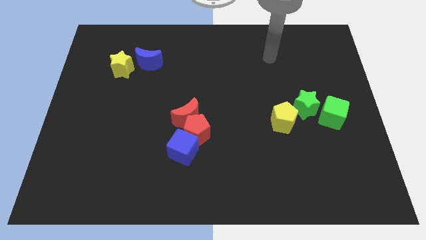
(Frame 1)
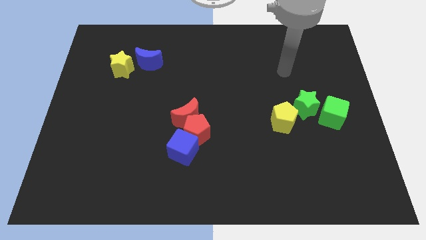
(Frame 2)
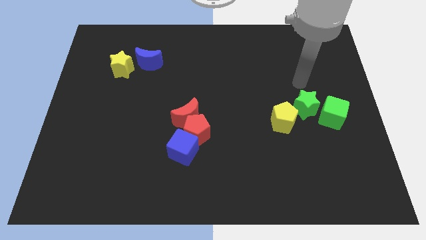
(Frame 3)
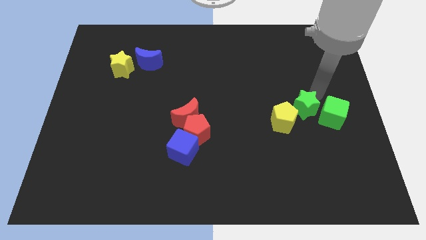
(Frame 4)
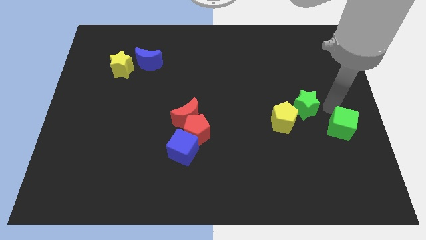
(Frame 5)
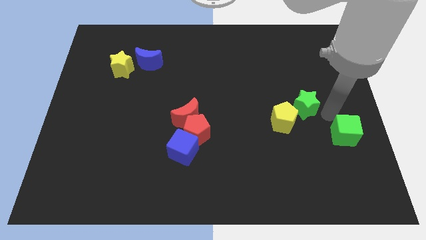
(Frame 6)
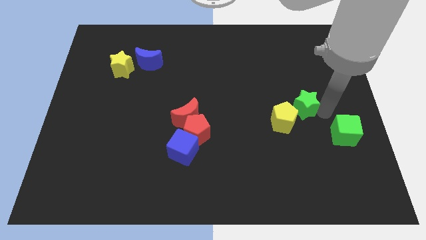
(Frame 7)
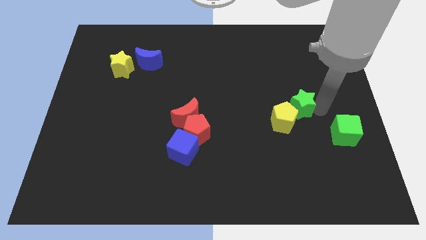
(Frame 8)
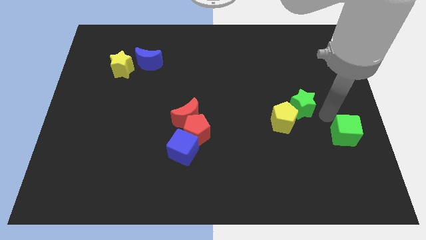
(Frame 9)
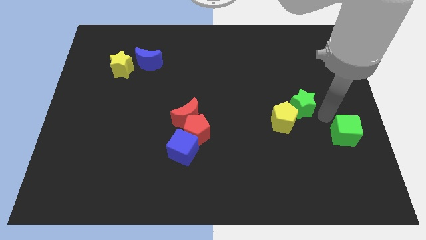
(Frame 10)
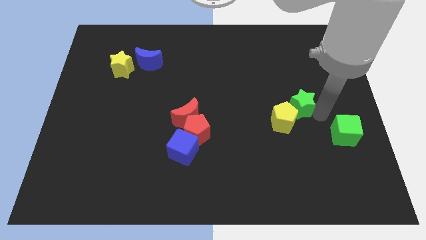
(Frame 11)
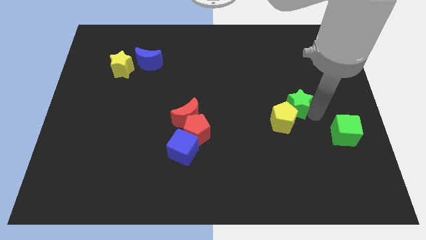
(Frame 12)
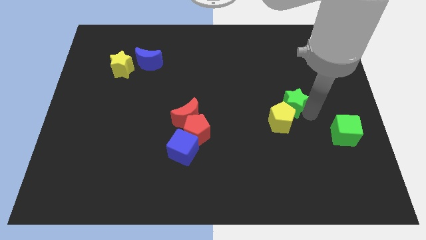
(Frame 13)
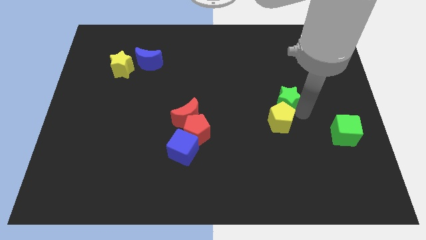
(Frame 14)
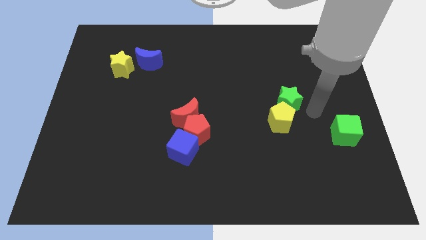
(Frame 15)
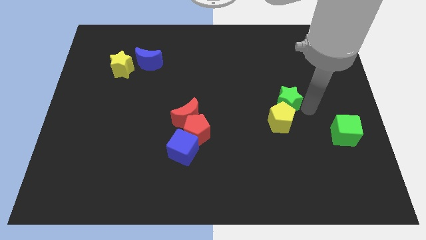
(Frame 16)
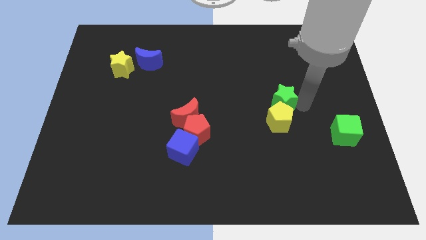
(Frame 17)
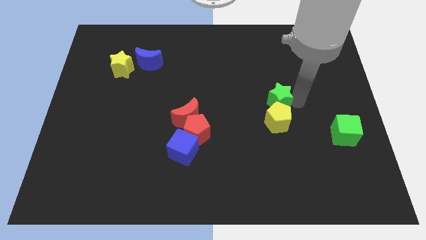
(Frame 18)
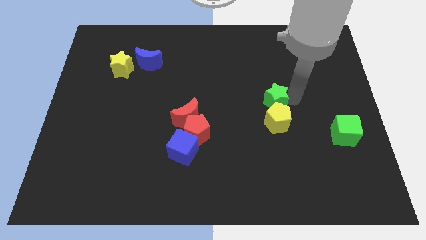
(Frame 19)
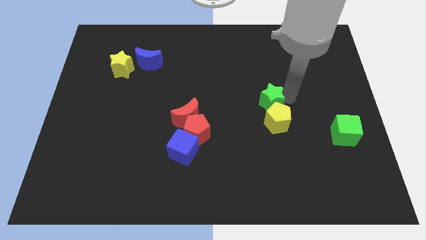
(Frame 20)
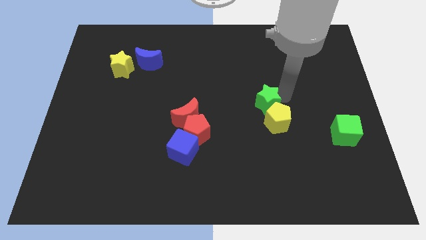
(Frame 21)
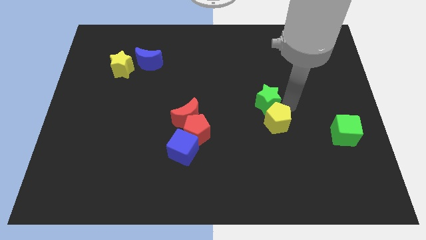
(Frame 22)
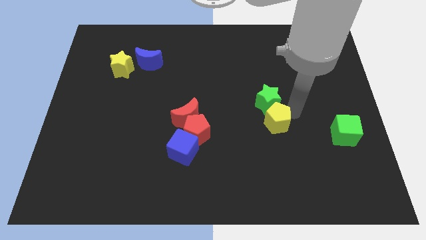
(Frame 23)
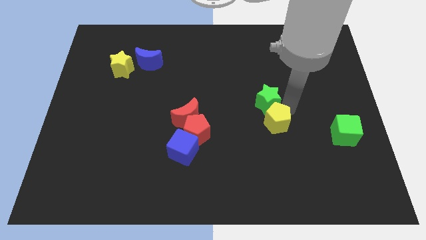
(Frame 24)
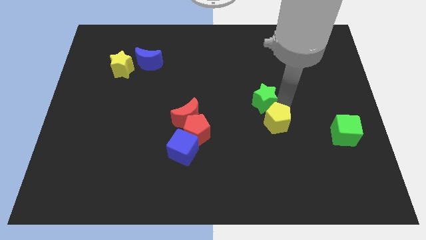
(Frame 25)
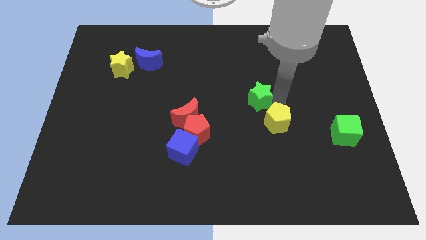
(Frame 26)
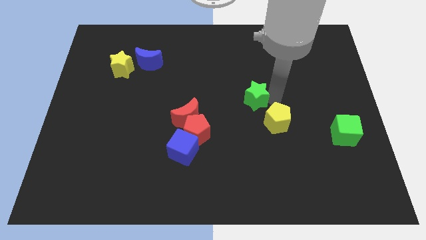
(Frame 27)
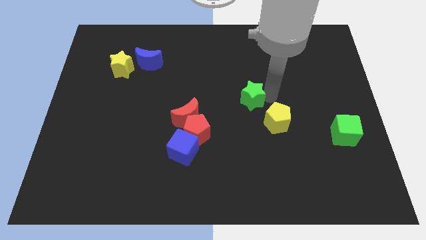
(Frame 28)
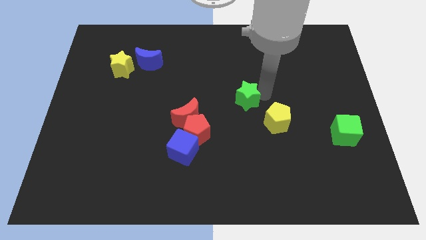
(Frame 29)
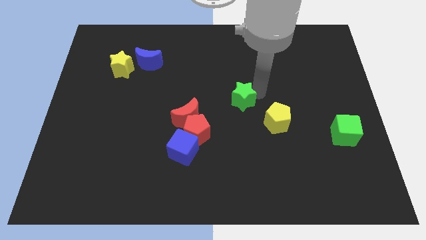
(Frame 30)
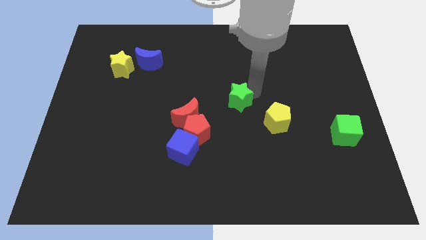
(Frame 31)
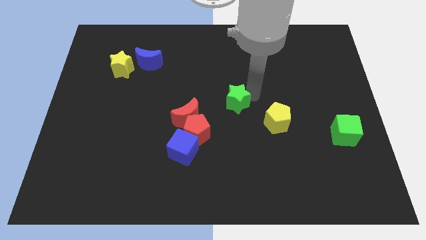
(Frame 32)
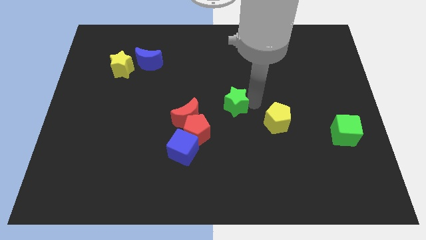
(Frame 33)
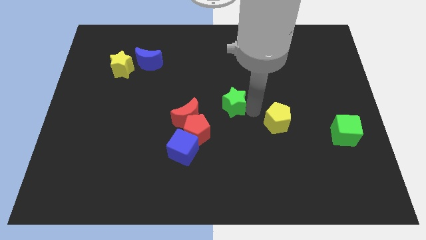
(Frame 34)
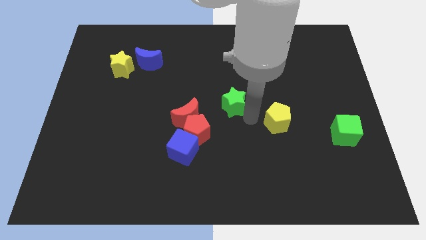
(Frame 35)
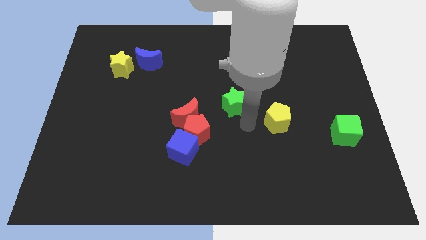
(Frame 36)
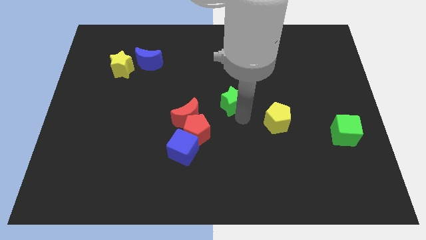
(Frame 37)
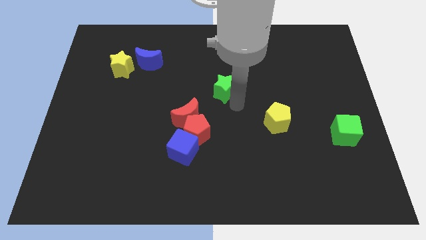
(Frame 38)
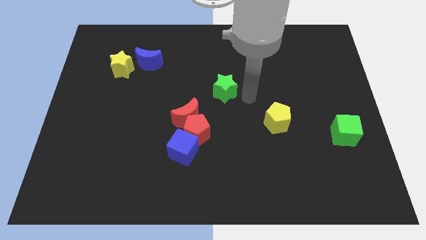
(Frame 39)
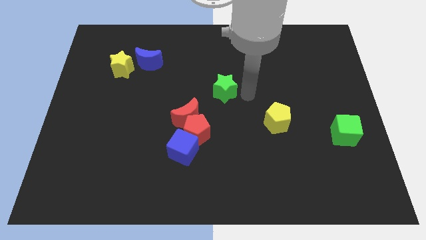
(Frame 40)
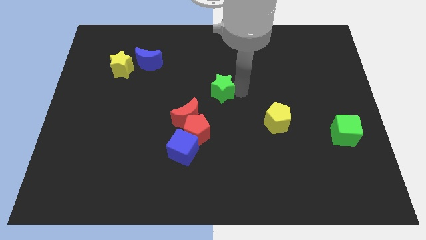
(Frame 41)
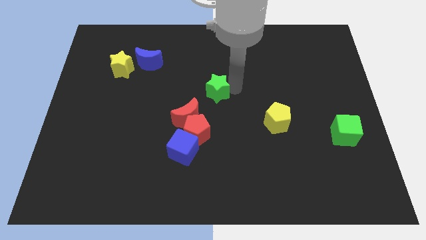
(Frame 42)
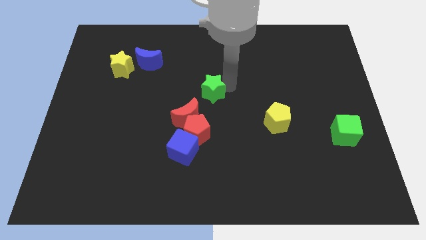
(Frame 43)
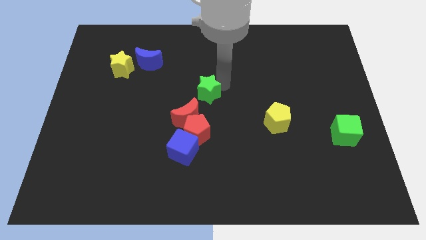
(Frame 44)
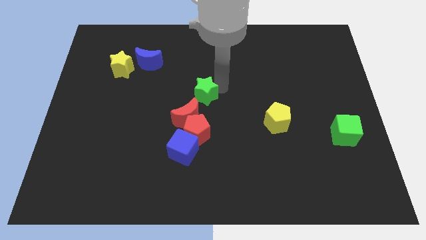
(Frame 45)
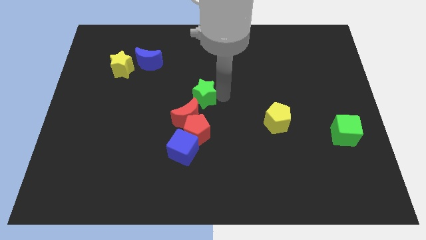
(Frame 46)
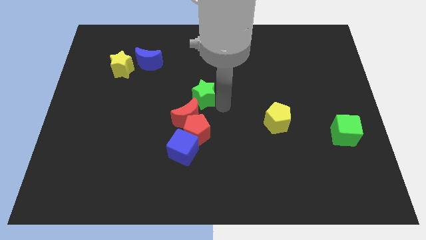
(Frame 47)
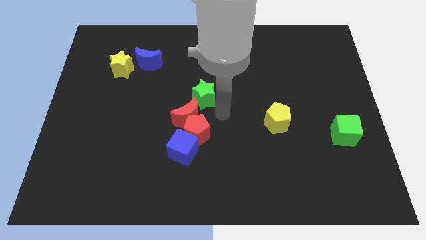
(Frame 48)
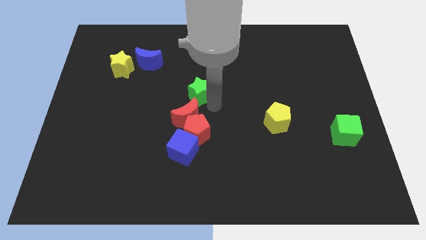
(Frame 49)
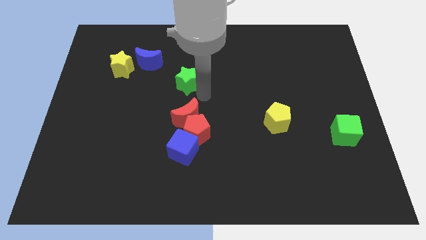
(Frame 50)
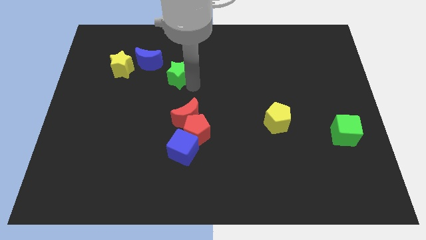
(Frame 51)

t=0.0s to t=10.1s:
push the green star just right of the yellow star

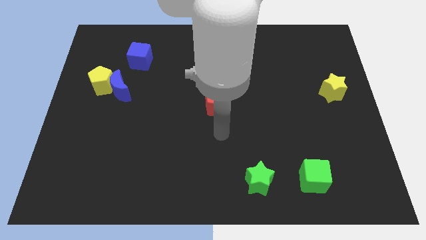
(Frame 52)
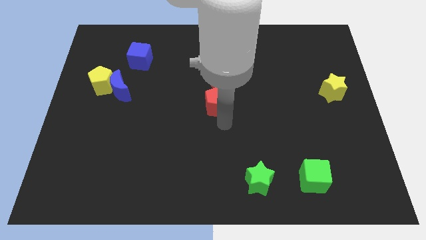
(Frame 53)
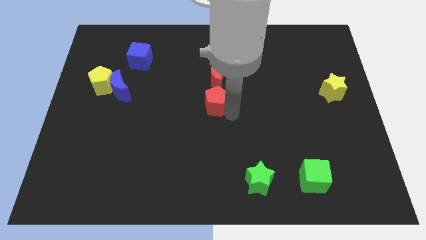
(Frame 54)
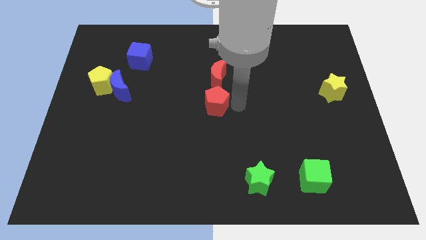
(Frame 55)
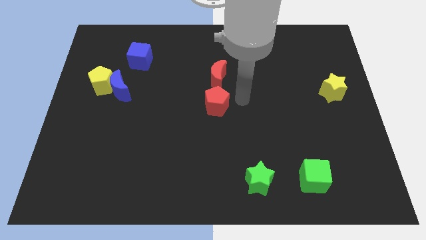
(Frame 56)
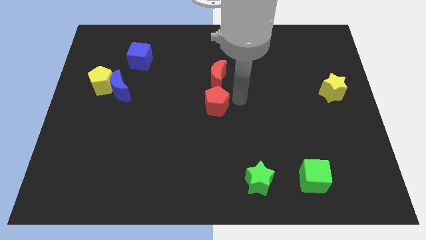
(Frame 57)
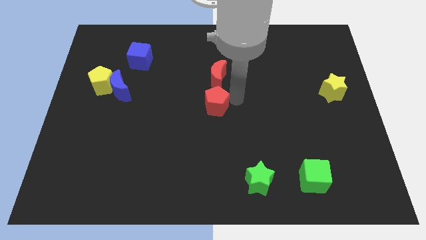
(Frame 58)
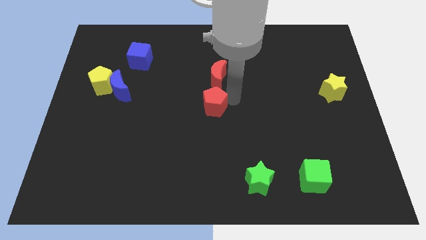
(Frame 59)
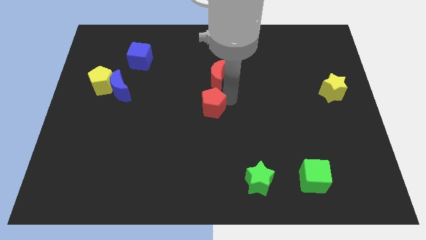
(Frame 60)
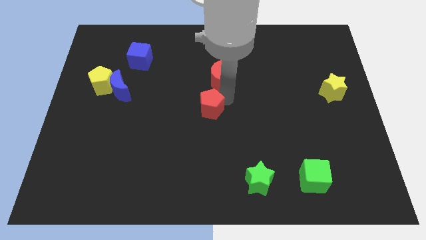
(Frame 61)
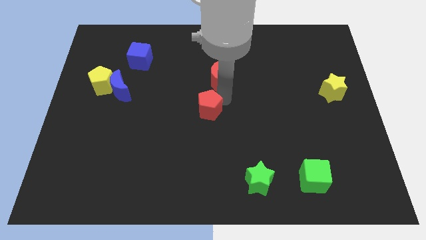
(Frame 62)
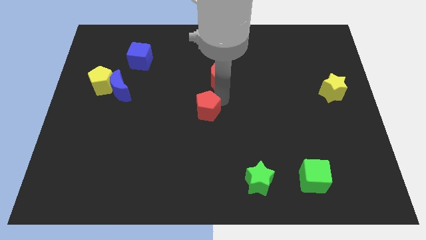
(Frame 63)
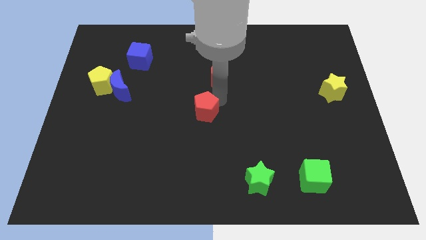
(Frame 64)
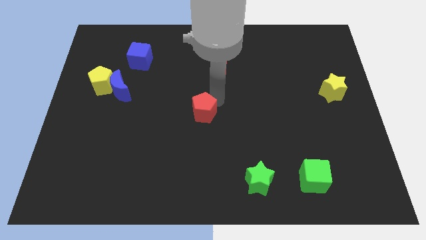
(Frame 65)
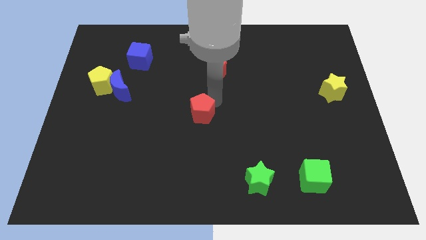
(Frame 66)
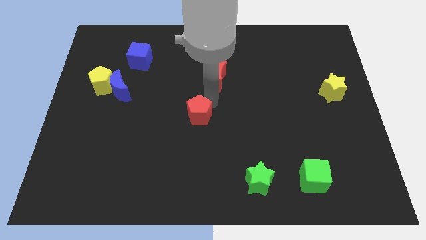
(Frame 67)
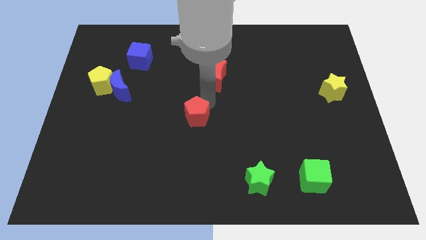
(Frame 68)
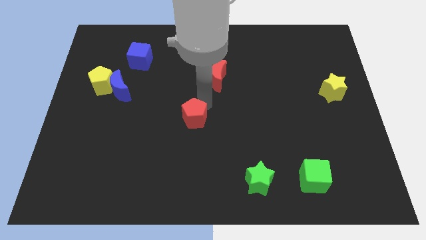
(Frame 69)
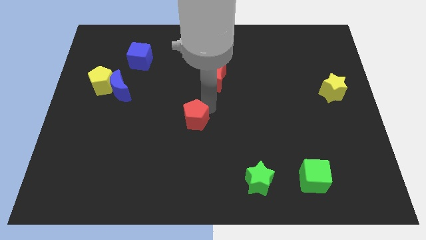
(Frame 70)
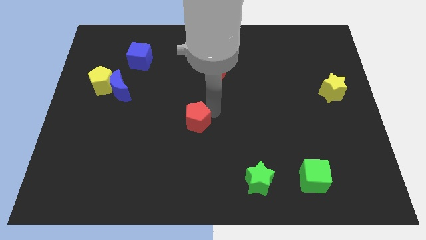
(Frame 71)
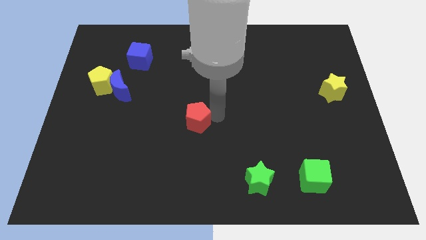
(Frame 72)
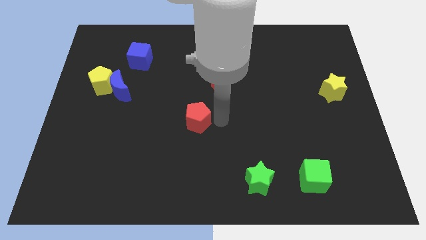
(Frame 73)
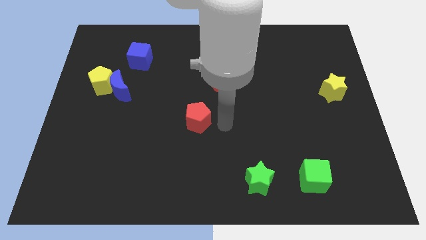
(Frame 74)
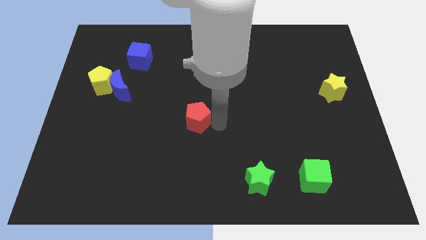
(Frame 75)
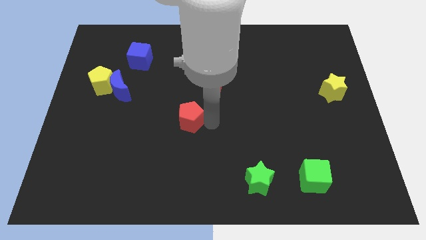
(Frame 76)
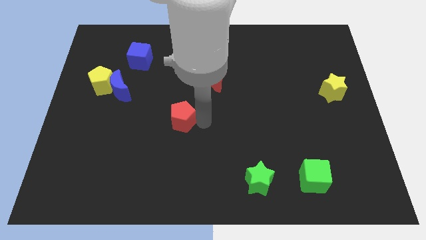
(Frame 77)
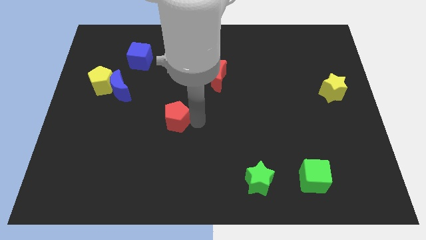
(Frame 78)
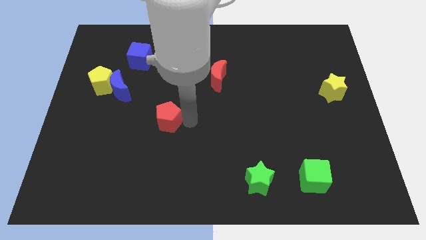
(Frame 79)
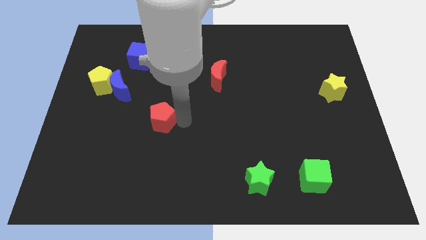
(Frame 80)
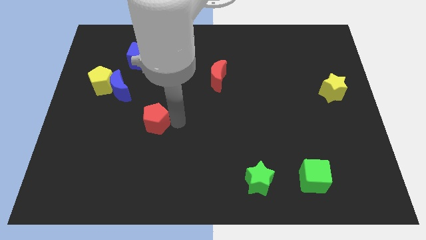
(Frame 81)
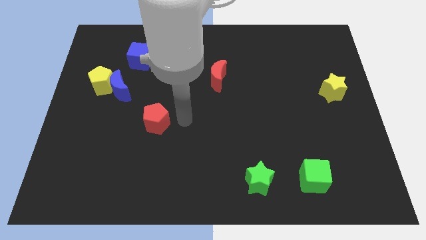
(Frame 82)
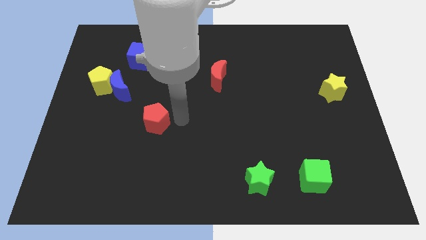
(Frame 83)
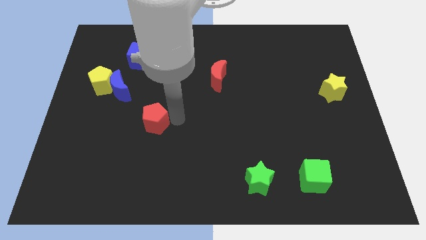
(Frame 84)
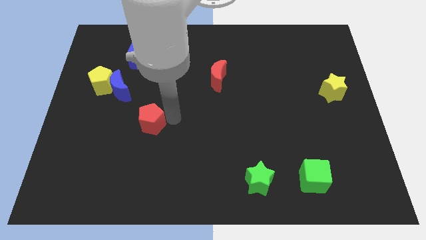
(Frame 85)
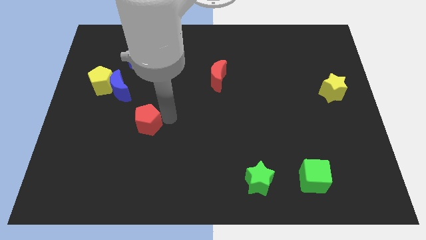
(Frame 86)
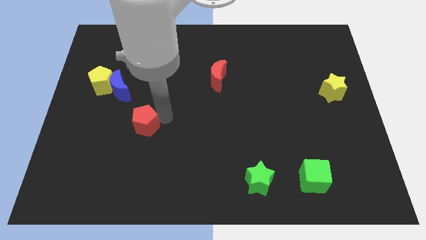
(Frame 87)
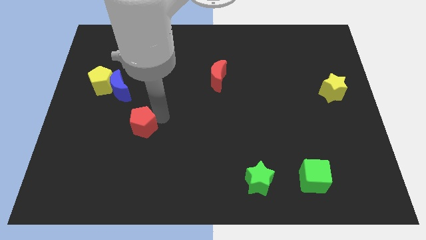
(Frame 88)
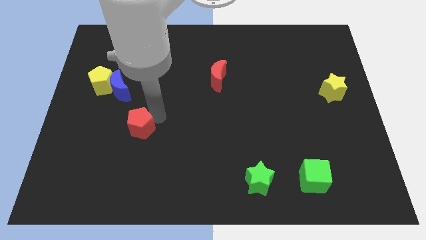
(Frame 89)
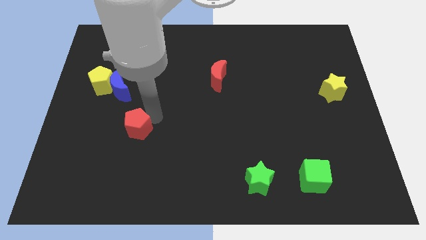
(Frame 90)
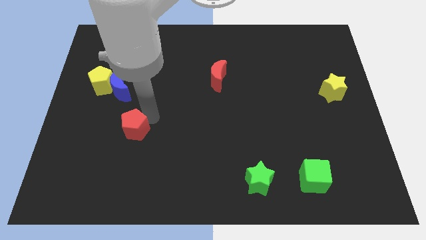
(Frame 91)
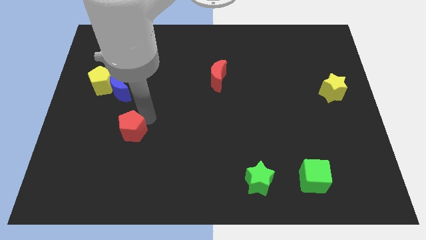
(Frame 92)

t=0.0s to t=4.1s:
slide the red pentagon to the bottom side of the blue moon
